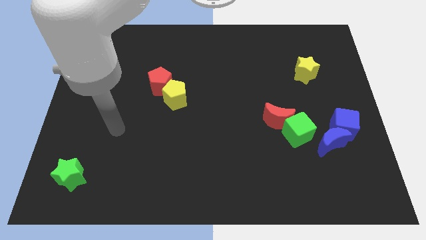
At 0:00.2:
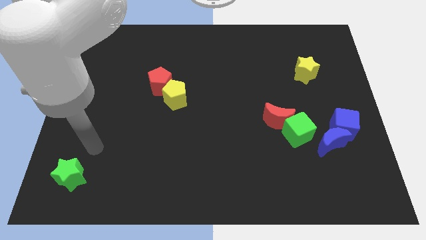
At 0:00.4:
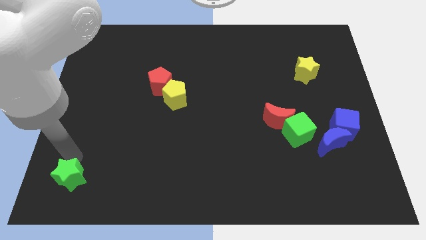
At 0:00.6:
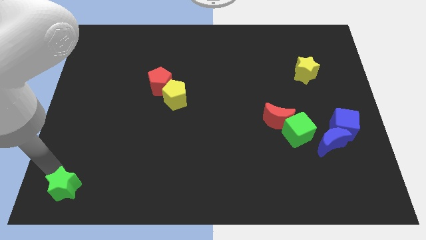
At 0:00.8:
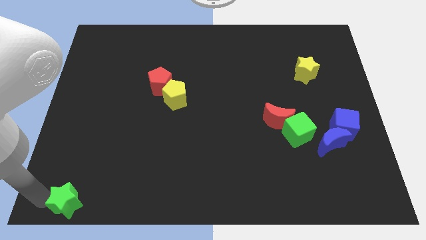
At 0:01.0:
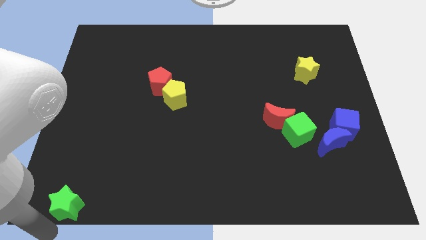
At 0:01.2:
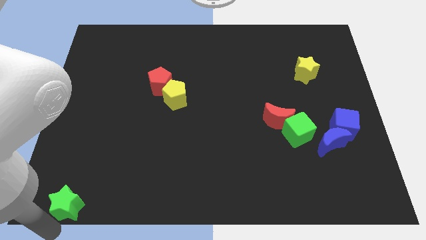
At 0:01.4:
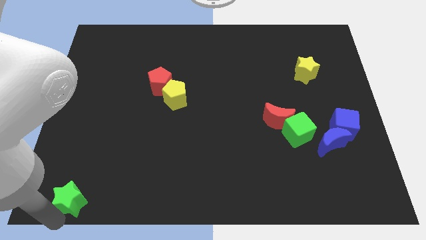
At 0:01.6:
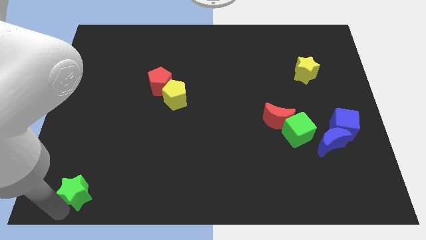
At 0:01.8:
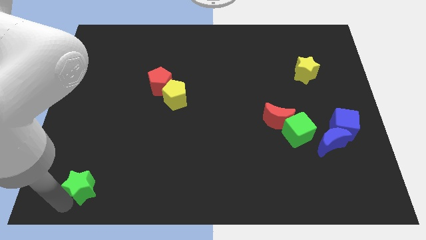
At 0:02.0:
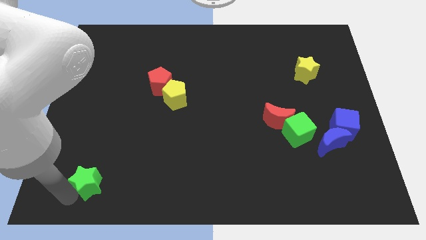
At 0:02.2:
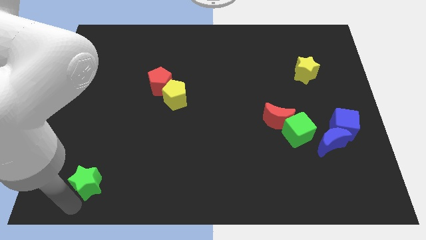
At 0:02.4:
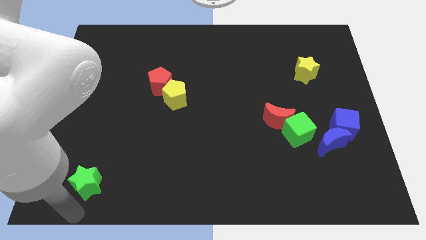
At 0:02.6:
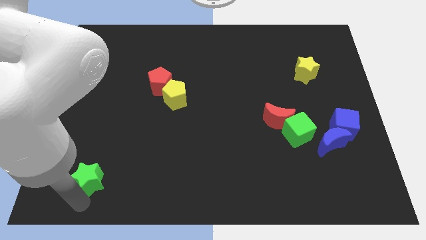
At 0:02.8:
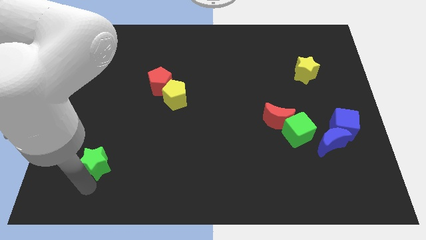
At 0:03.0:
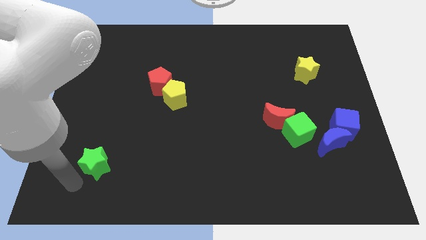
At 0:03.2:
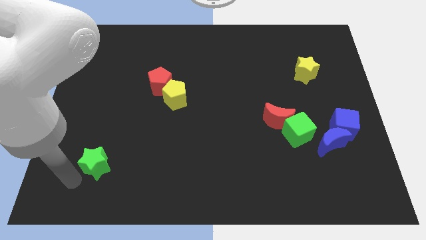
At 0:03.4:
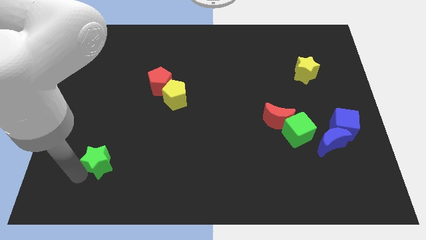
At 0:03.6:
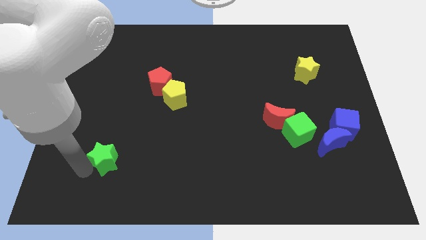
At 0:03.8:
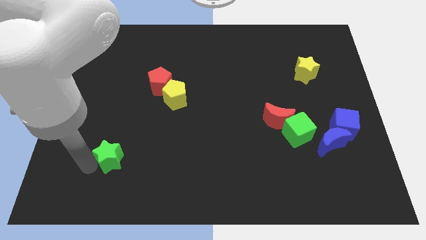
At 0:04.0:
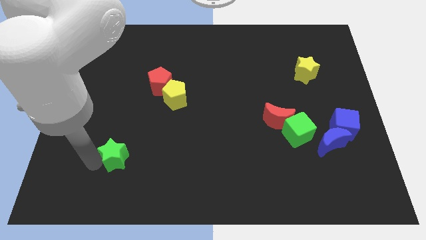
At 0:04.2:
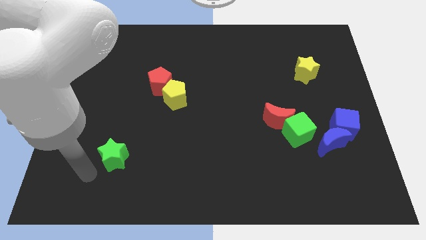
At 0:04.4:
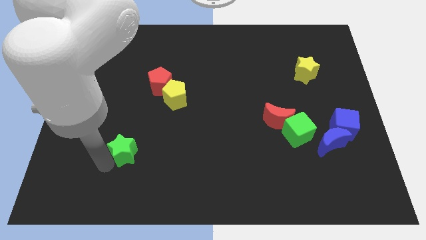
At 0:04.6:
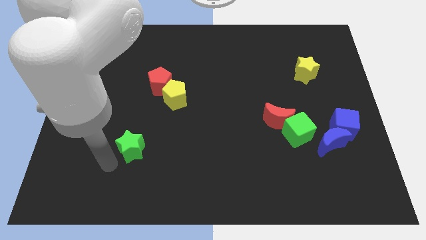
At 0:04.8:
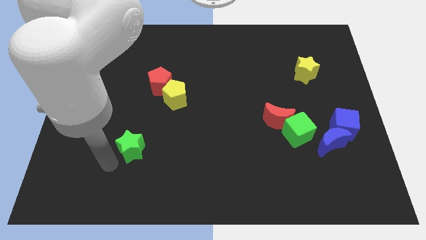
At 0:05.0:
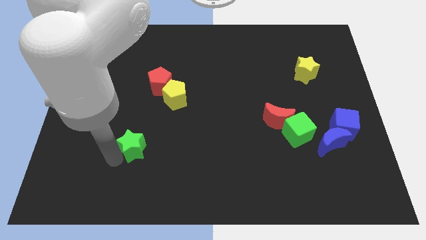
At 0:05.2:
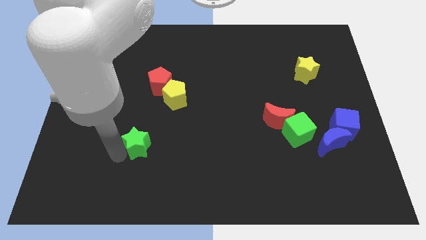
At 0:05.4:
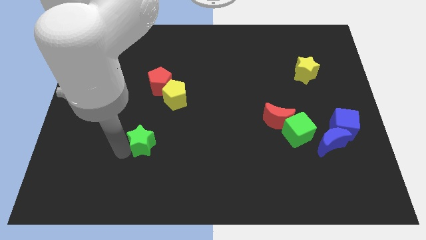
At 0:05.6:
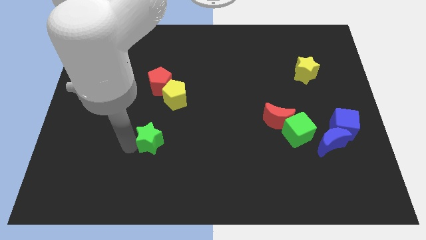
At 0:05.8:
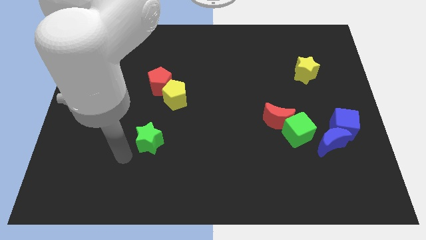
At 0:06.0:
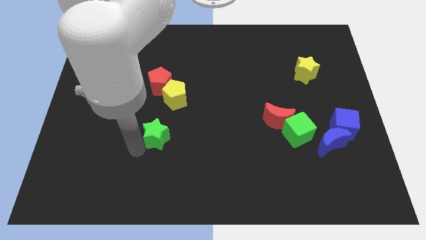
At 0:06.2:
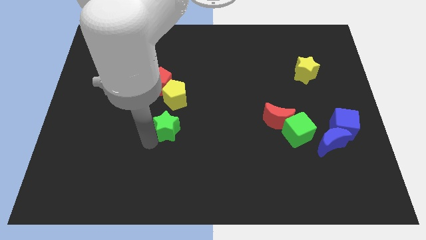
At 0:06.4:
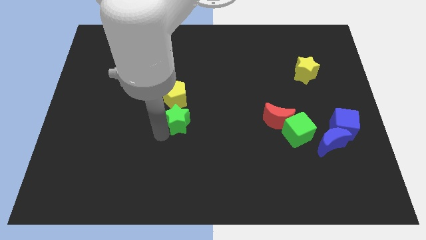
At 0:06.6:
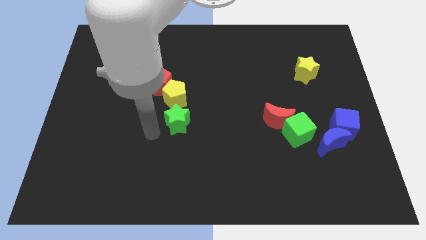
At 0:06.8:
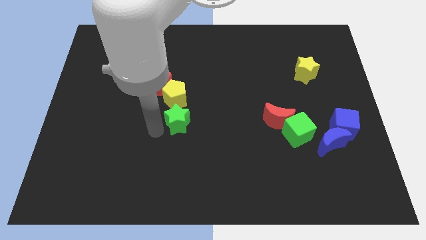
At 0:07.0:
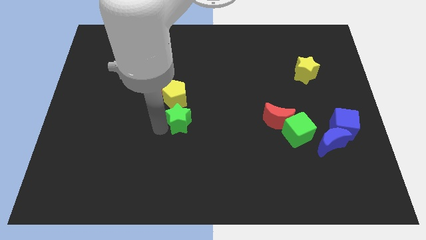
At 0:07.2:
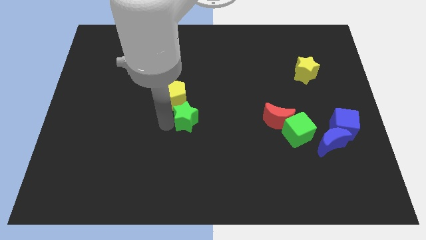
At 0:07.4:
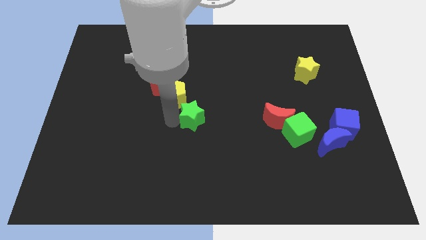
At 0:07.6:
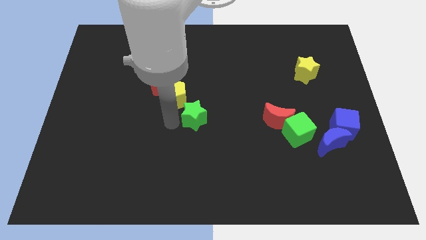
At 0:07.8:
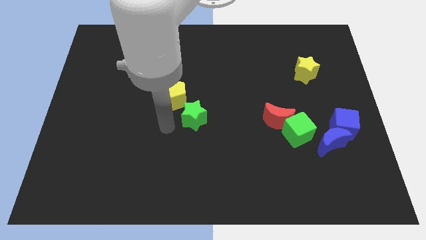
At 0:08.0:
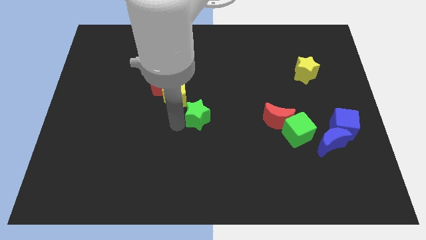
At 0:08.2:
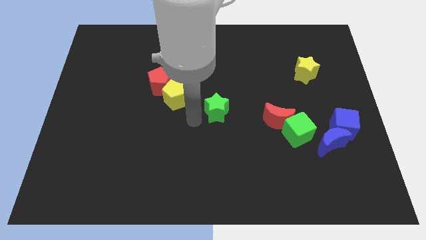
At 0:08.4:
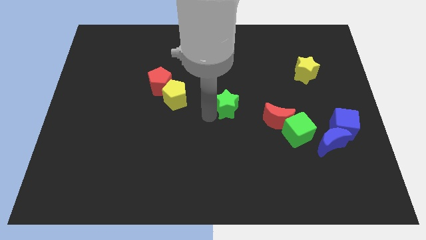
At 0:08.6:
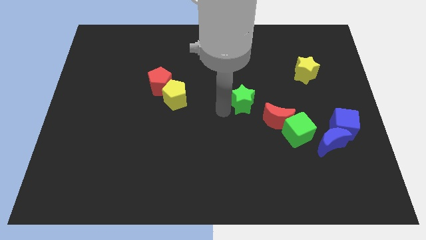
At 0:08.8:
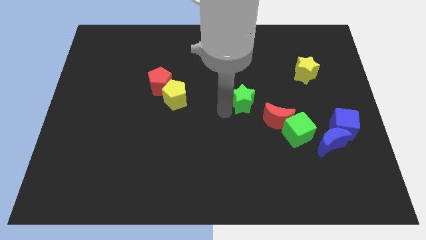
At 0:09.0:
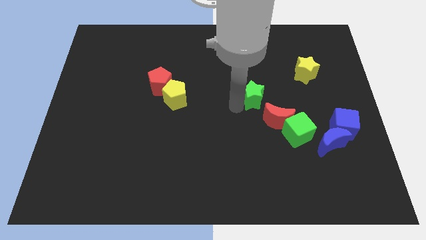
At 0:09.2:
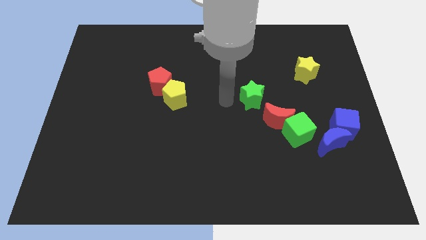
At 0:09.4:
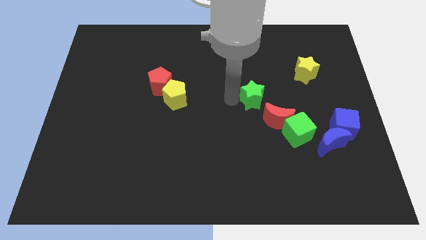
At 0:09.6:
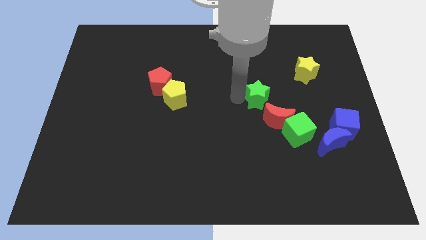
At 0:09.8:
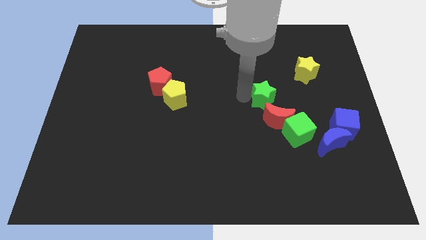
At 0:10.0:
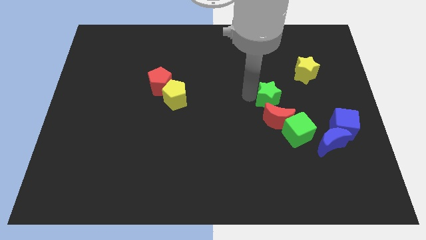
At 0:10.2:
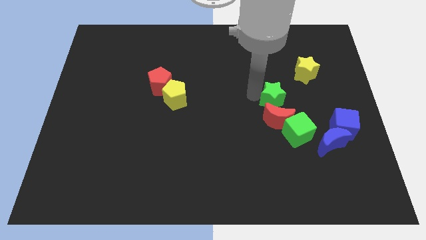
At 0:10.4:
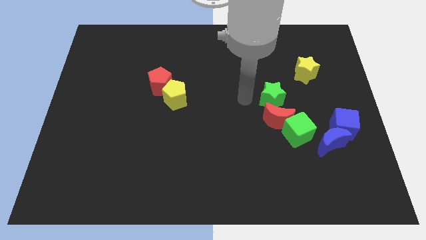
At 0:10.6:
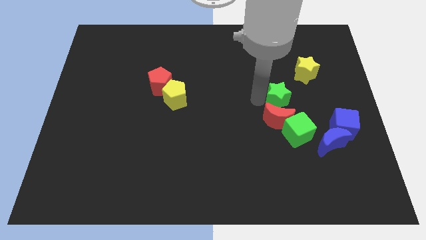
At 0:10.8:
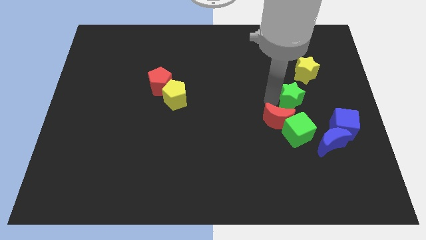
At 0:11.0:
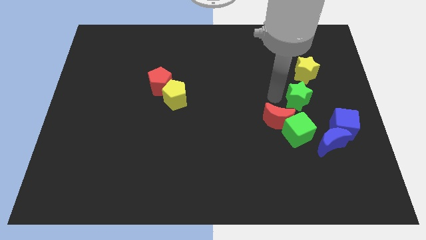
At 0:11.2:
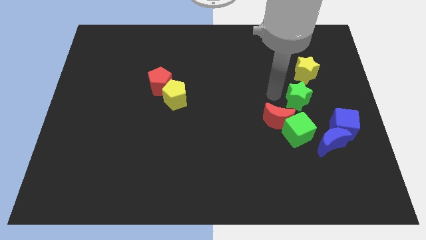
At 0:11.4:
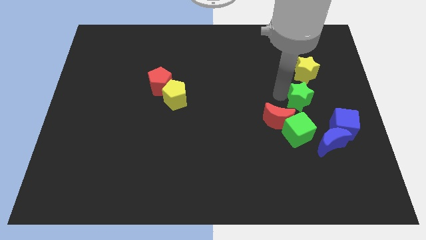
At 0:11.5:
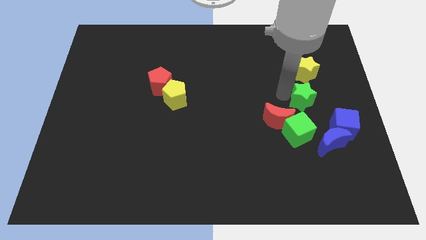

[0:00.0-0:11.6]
slide the green star to the top side of the blue moon
